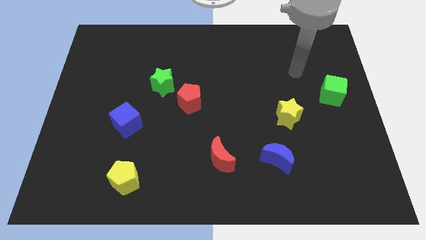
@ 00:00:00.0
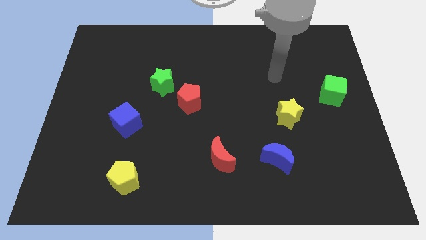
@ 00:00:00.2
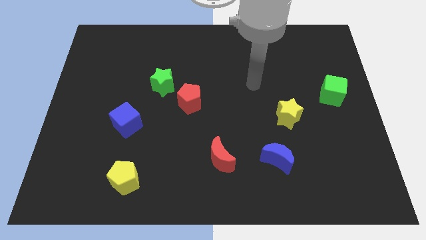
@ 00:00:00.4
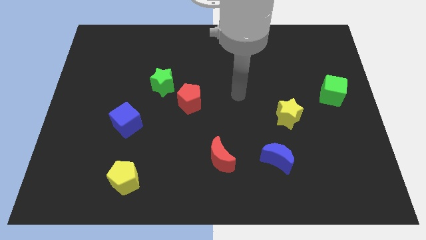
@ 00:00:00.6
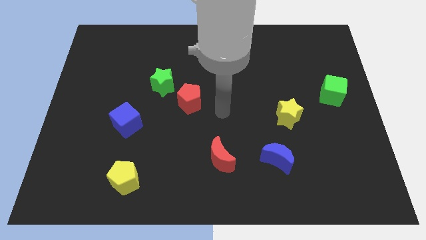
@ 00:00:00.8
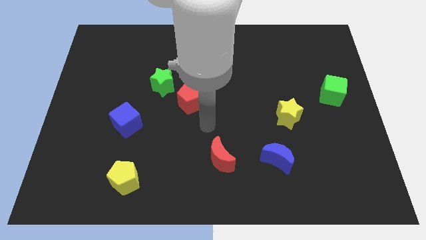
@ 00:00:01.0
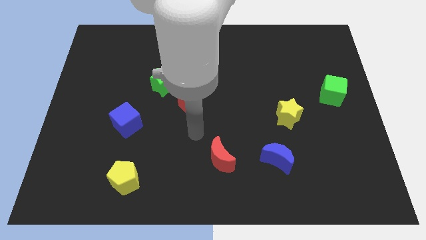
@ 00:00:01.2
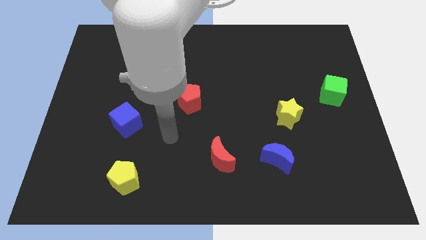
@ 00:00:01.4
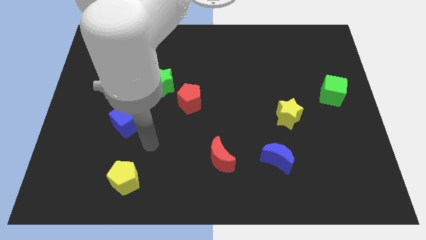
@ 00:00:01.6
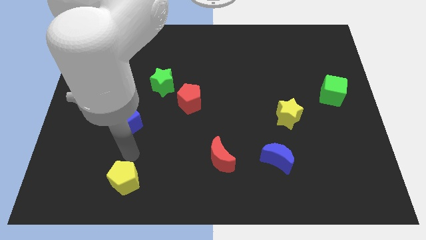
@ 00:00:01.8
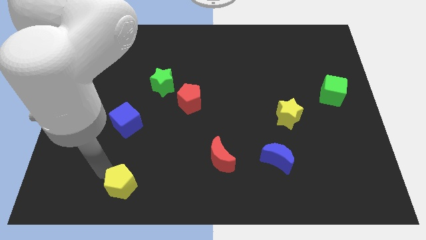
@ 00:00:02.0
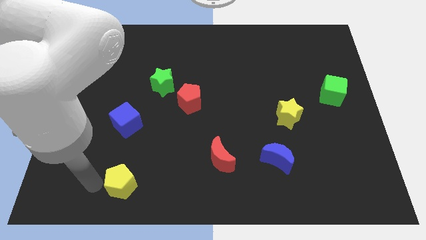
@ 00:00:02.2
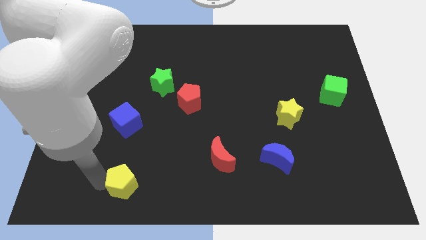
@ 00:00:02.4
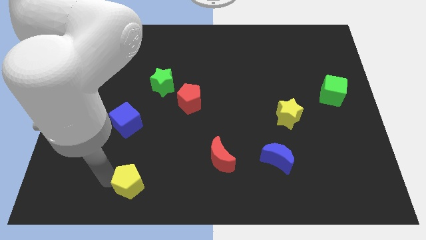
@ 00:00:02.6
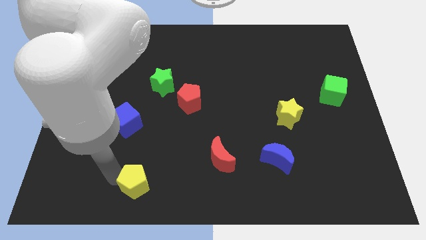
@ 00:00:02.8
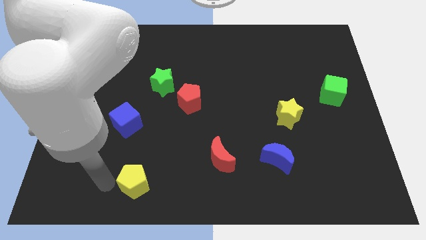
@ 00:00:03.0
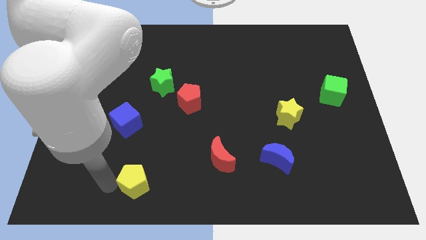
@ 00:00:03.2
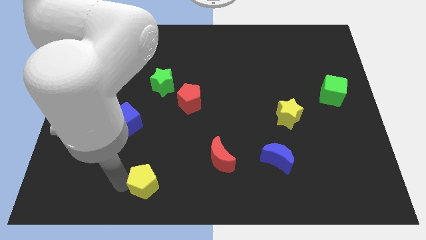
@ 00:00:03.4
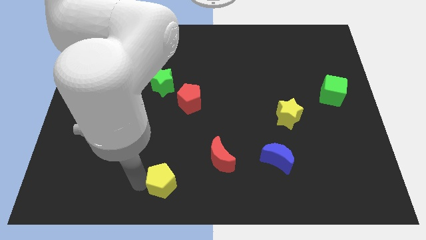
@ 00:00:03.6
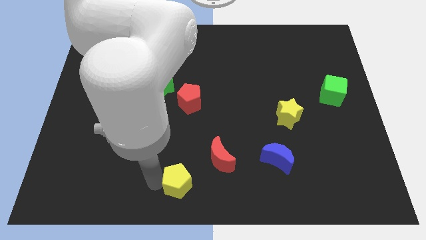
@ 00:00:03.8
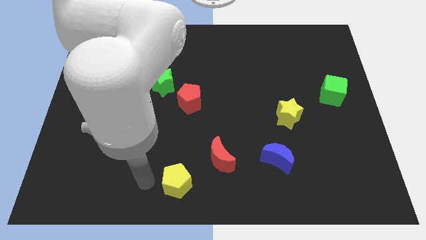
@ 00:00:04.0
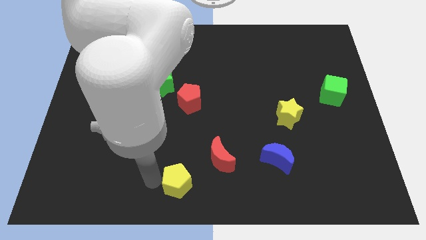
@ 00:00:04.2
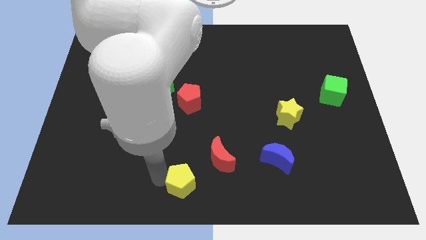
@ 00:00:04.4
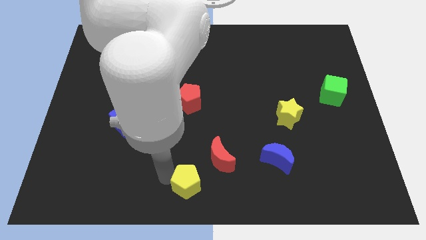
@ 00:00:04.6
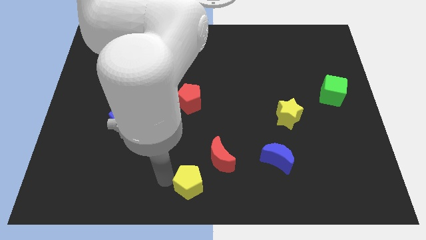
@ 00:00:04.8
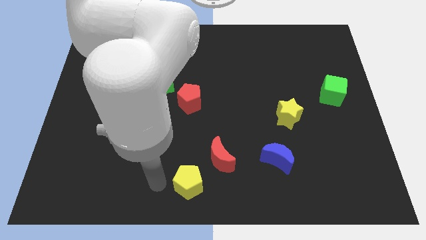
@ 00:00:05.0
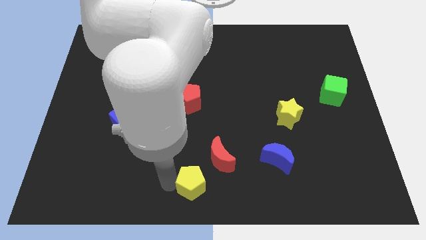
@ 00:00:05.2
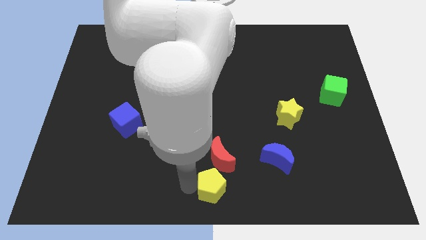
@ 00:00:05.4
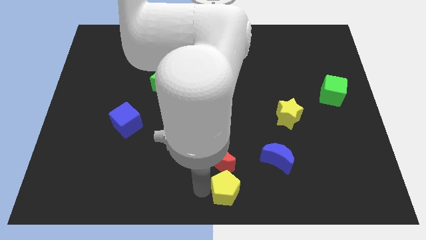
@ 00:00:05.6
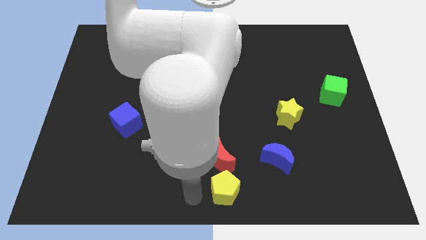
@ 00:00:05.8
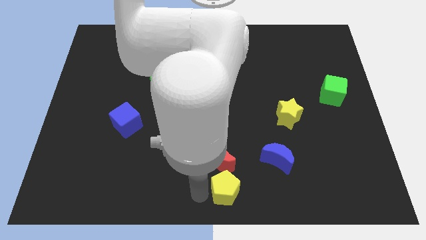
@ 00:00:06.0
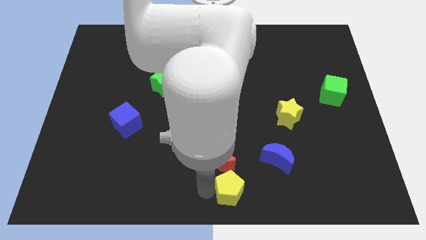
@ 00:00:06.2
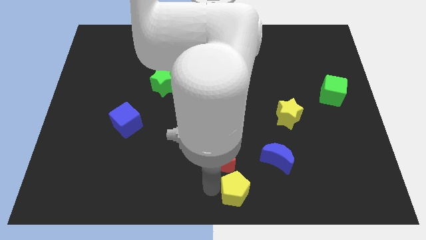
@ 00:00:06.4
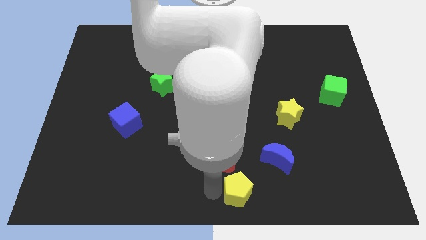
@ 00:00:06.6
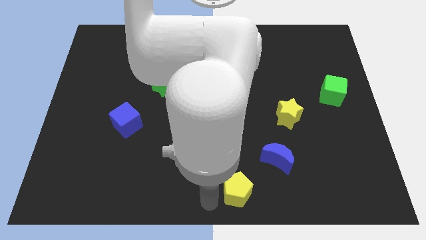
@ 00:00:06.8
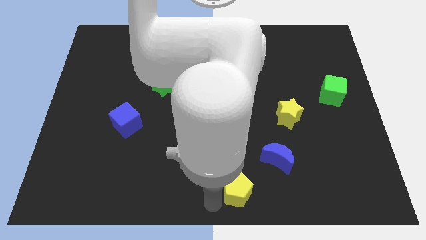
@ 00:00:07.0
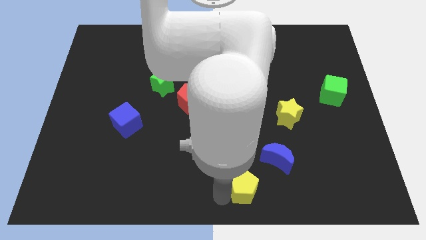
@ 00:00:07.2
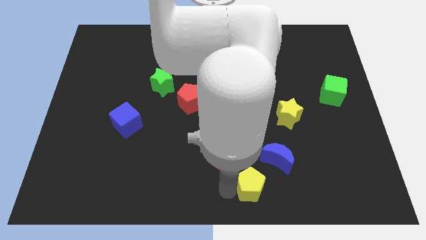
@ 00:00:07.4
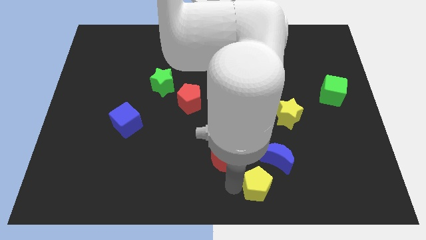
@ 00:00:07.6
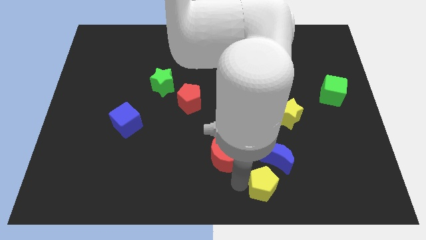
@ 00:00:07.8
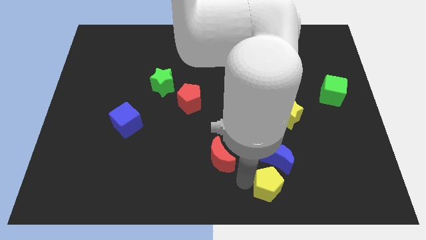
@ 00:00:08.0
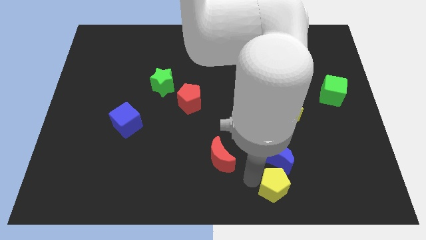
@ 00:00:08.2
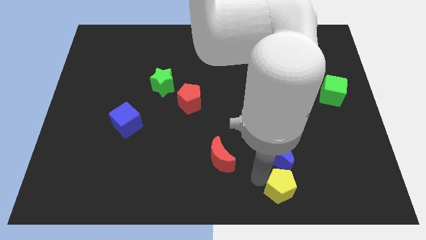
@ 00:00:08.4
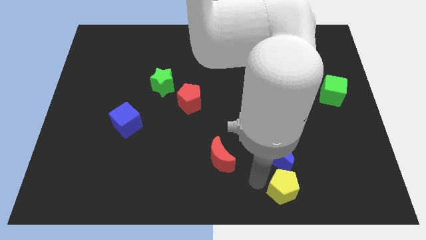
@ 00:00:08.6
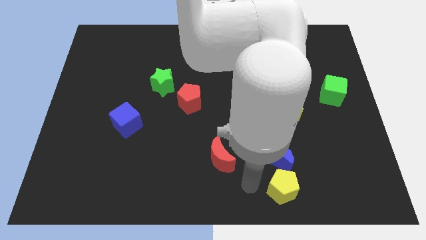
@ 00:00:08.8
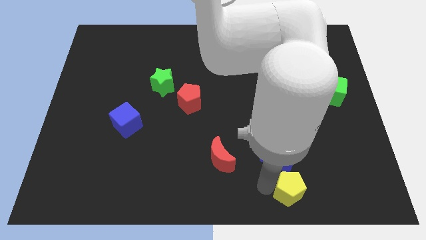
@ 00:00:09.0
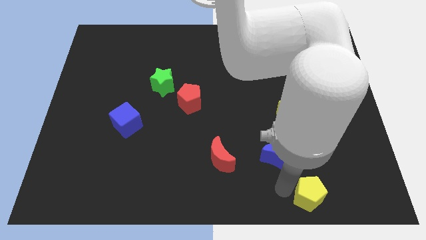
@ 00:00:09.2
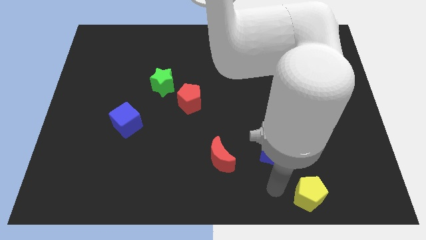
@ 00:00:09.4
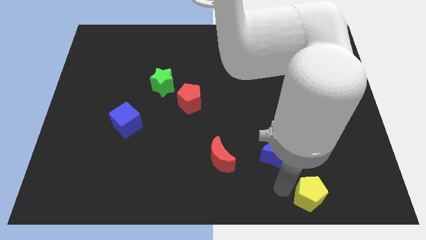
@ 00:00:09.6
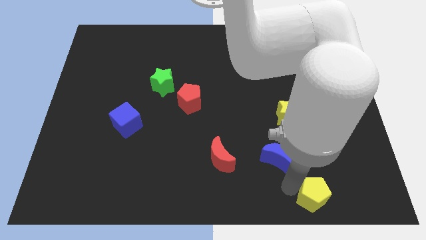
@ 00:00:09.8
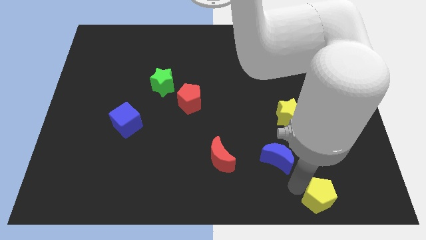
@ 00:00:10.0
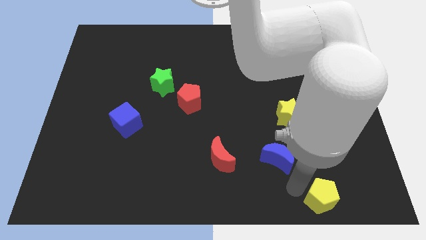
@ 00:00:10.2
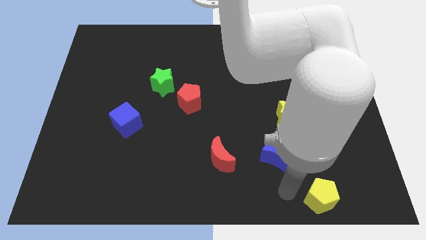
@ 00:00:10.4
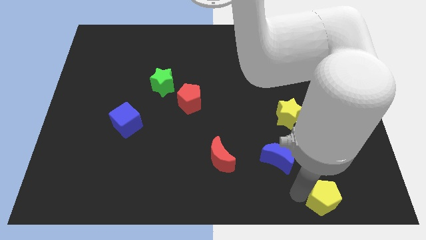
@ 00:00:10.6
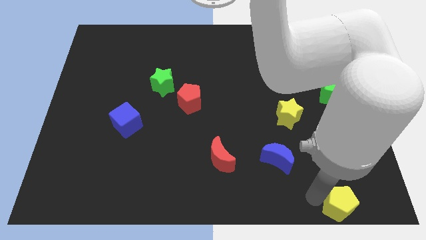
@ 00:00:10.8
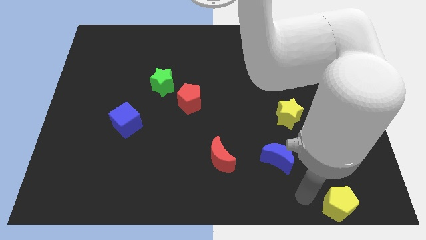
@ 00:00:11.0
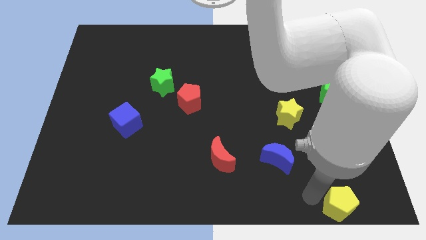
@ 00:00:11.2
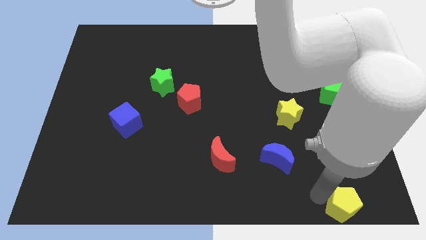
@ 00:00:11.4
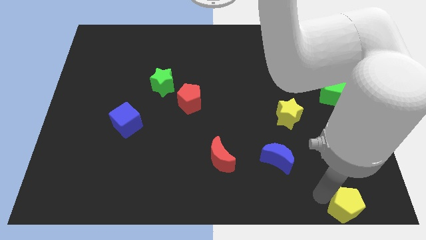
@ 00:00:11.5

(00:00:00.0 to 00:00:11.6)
put the yellow pentagon to the lower right corner
